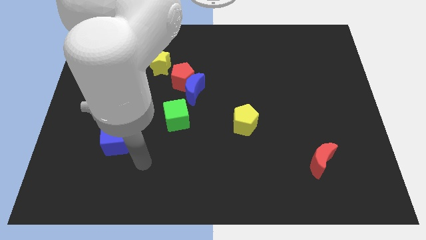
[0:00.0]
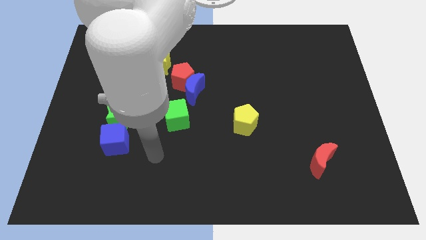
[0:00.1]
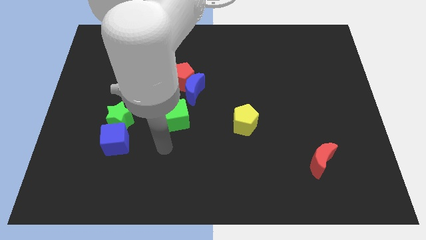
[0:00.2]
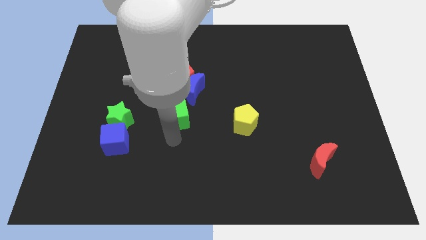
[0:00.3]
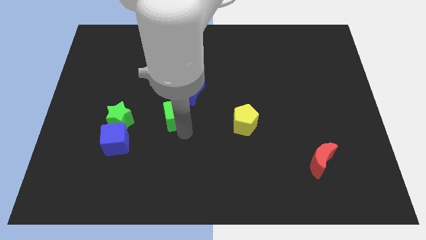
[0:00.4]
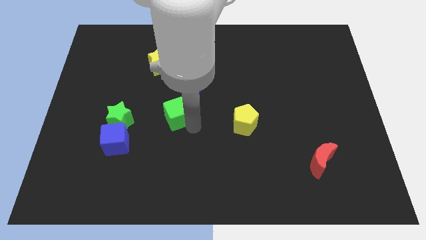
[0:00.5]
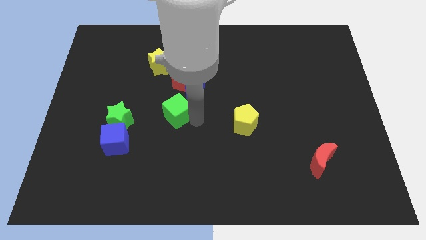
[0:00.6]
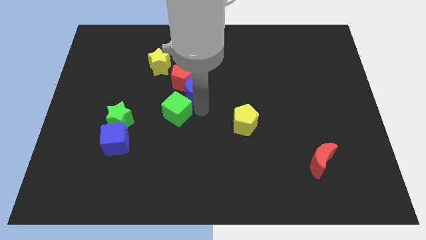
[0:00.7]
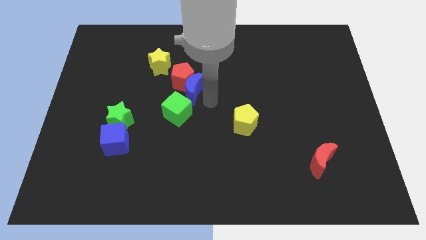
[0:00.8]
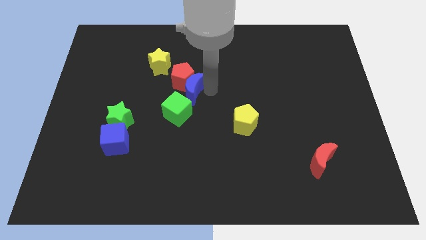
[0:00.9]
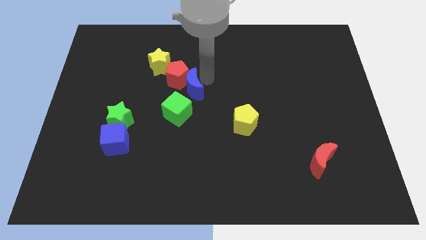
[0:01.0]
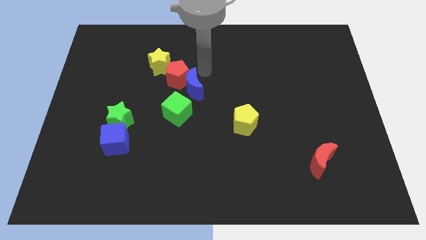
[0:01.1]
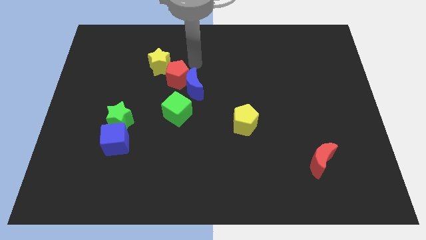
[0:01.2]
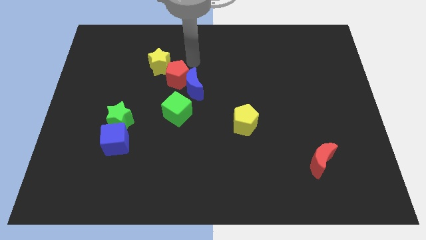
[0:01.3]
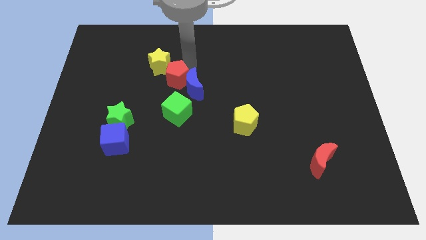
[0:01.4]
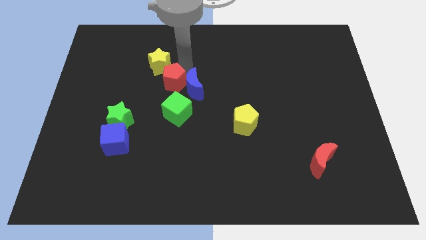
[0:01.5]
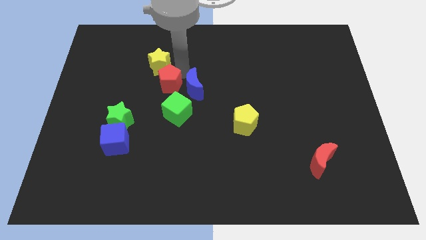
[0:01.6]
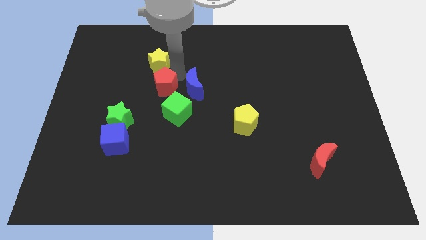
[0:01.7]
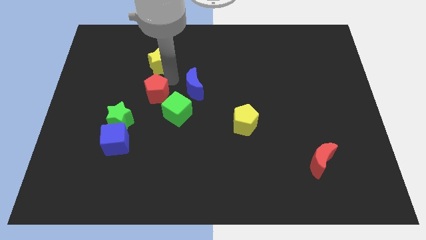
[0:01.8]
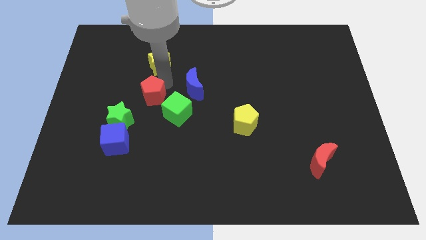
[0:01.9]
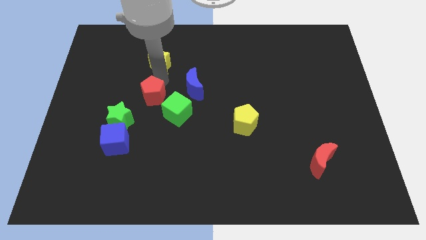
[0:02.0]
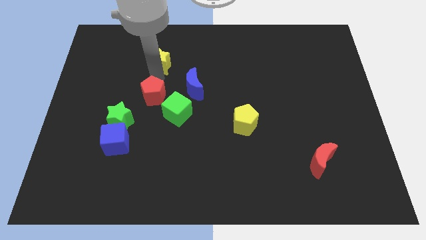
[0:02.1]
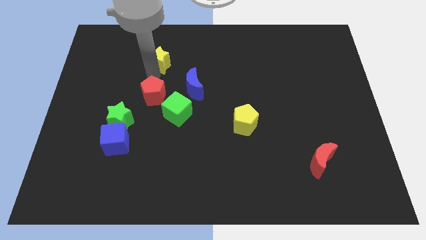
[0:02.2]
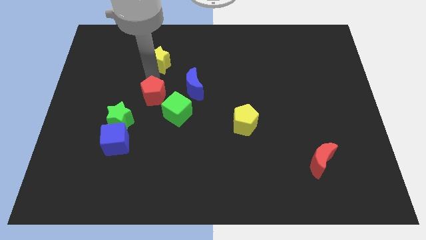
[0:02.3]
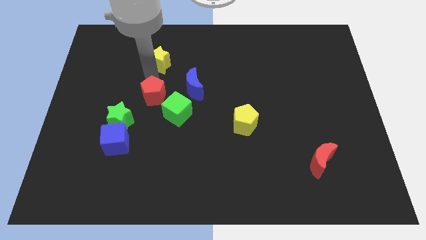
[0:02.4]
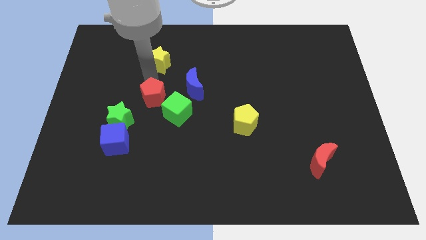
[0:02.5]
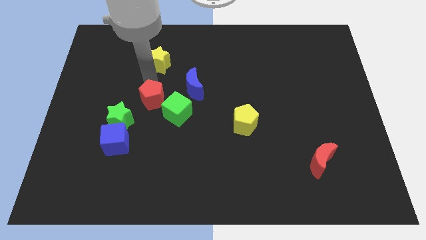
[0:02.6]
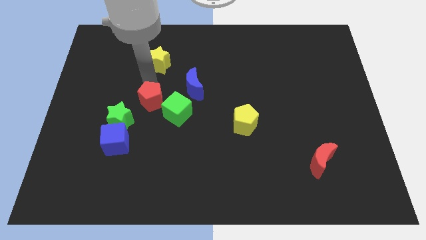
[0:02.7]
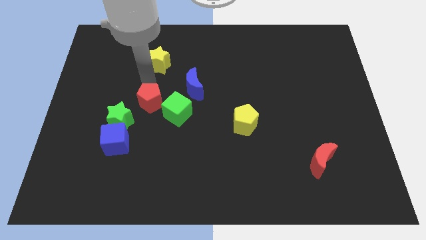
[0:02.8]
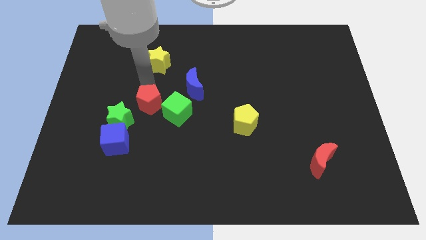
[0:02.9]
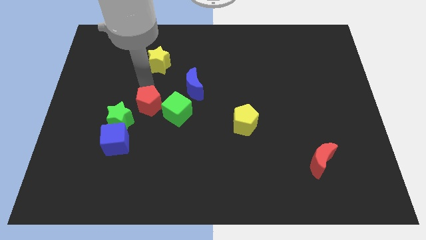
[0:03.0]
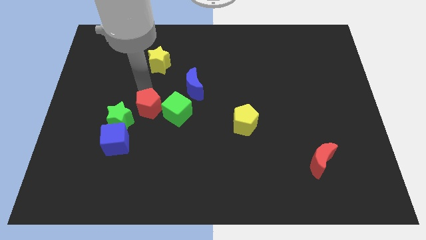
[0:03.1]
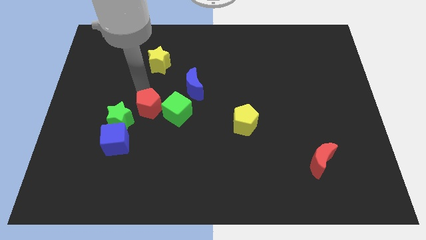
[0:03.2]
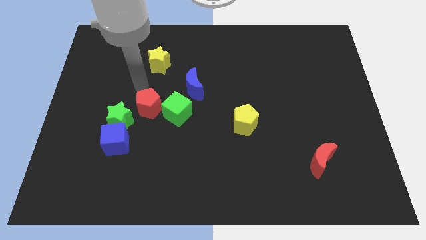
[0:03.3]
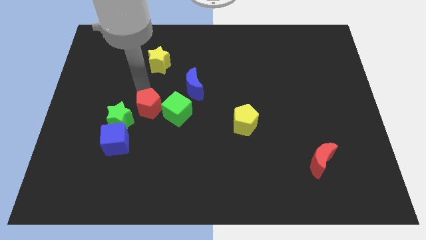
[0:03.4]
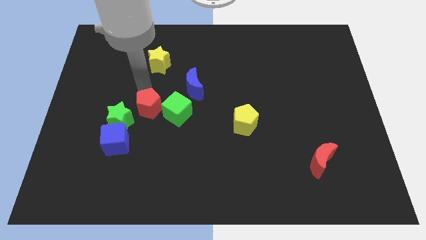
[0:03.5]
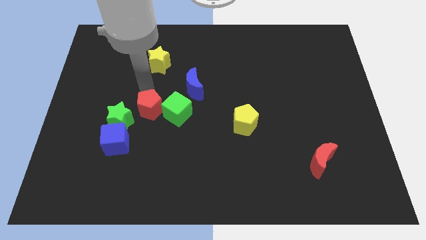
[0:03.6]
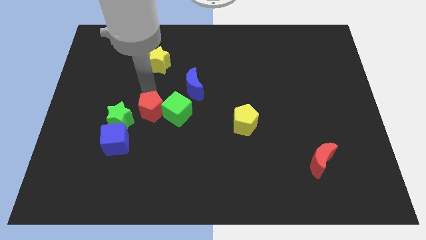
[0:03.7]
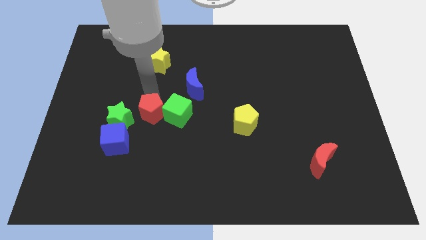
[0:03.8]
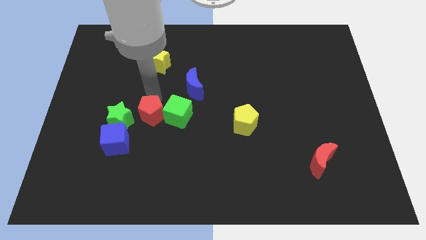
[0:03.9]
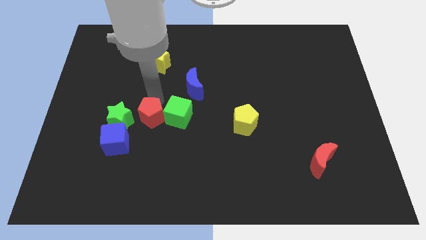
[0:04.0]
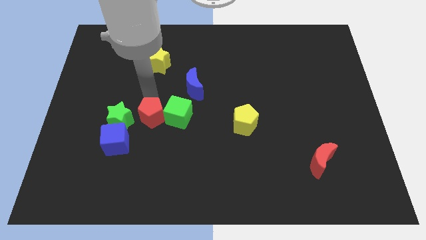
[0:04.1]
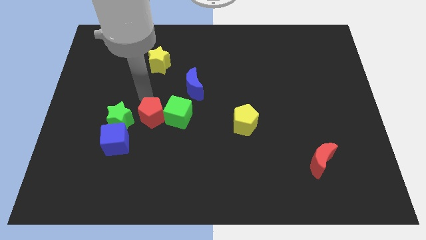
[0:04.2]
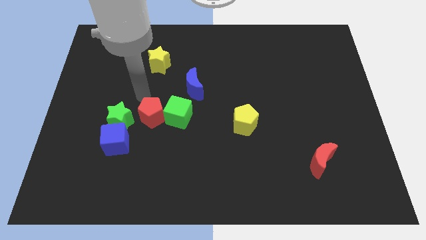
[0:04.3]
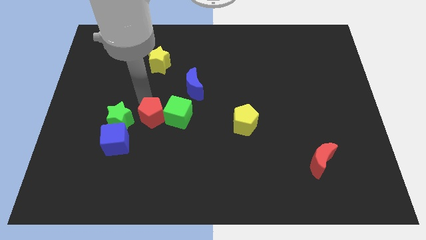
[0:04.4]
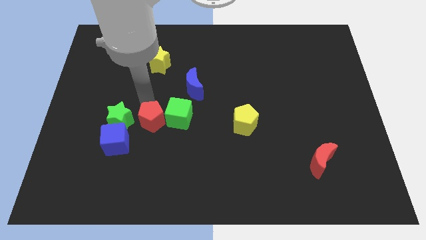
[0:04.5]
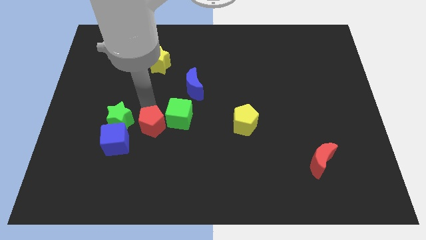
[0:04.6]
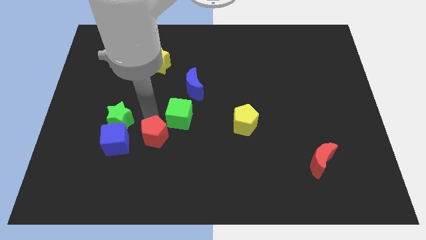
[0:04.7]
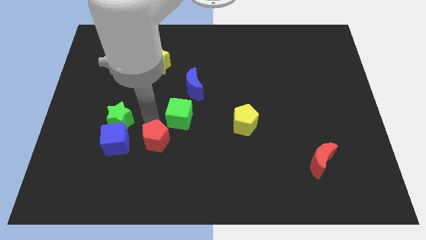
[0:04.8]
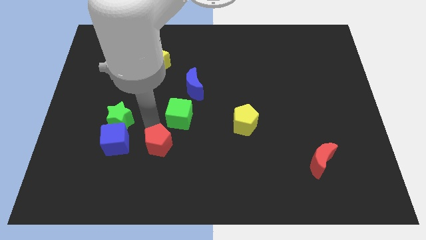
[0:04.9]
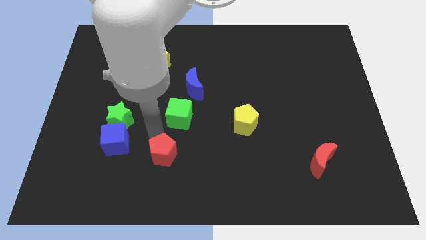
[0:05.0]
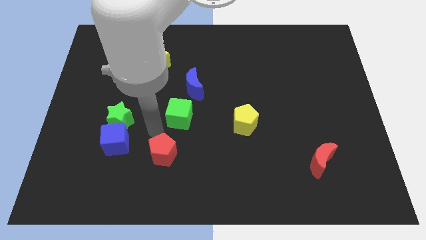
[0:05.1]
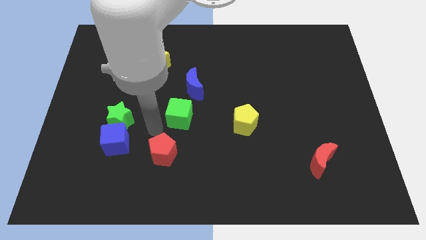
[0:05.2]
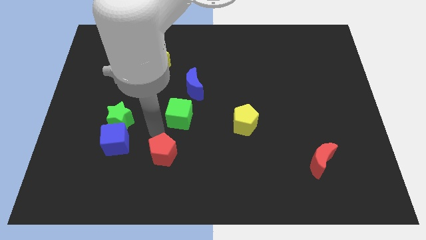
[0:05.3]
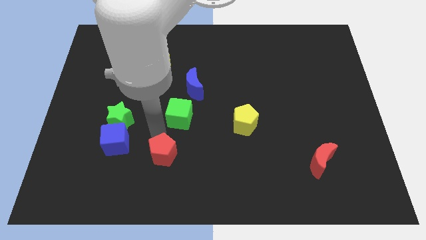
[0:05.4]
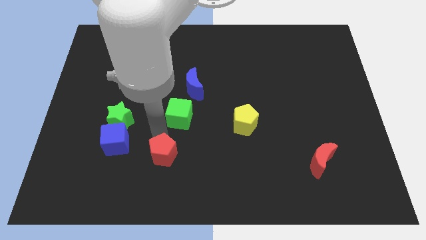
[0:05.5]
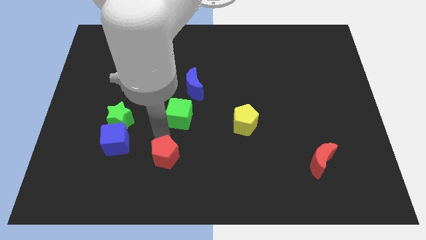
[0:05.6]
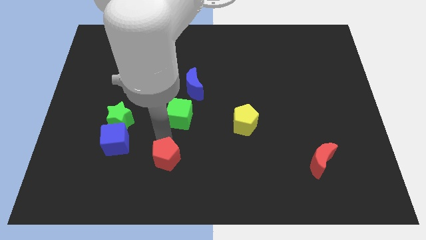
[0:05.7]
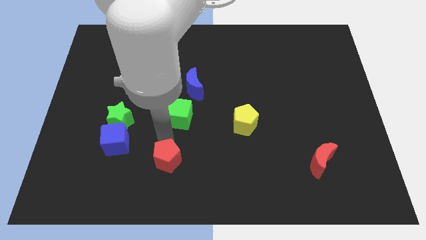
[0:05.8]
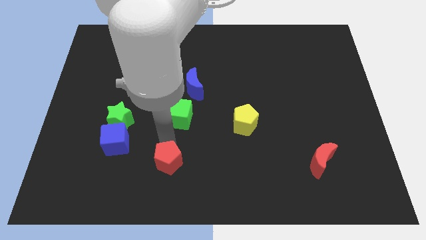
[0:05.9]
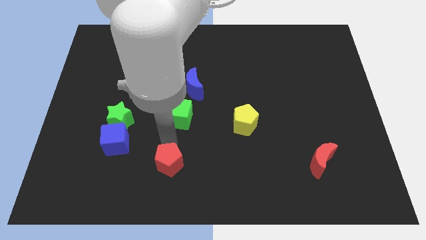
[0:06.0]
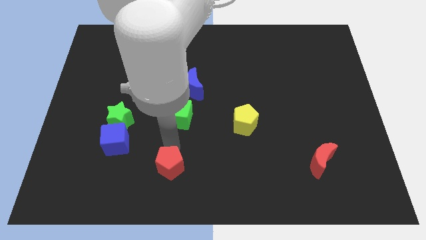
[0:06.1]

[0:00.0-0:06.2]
move the red pentagon to the bottom
